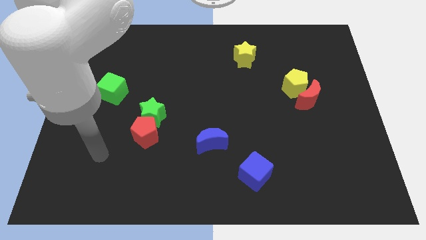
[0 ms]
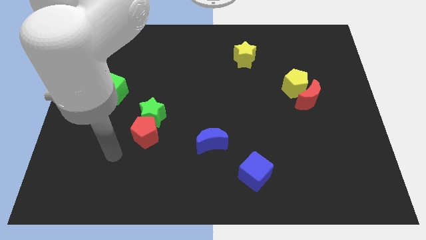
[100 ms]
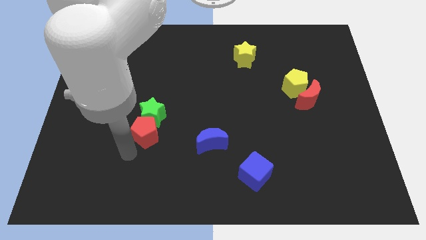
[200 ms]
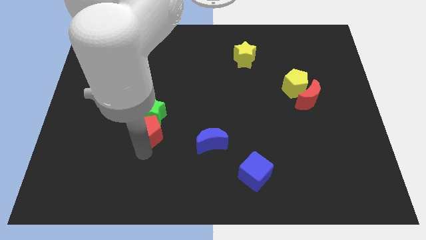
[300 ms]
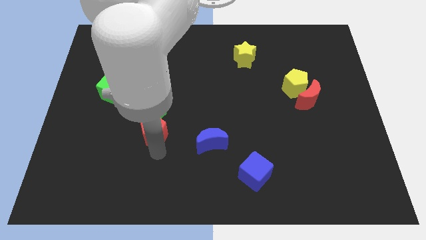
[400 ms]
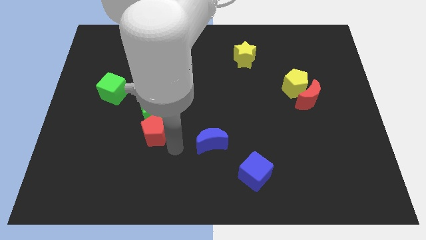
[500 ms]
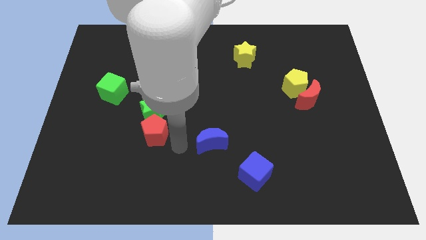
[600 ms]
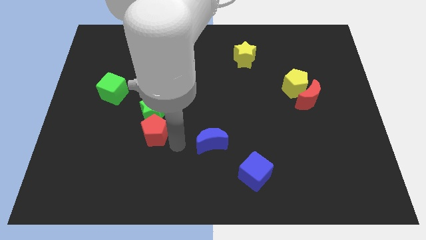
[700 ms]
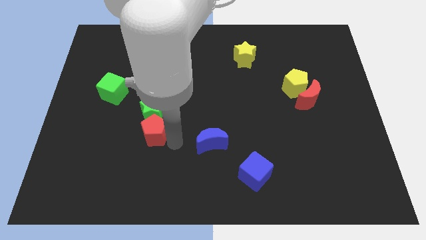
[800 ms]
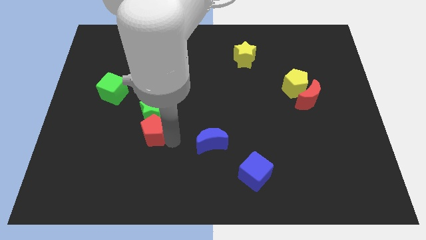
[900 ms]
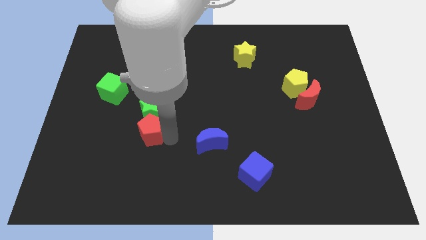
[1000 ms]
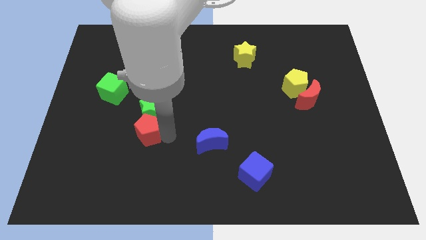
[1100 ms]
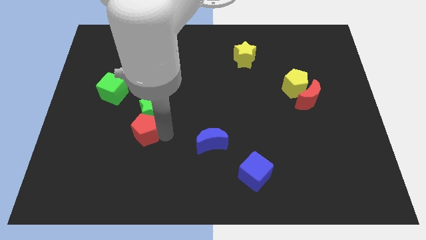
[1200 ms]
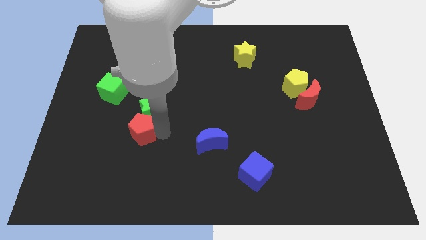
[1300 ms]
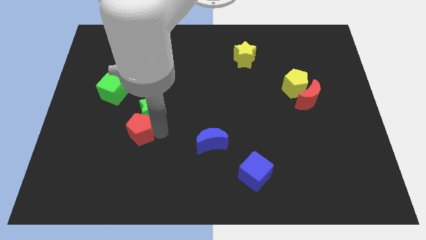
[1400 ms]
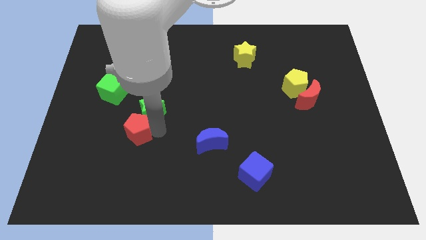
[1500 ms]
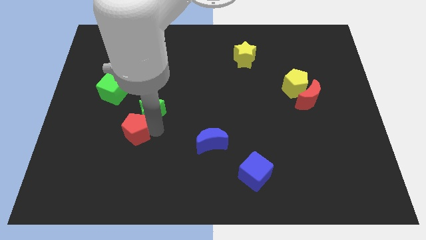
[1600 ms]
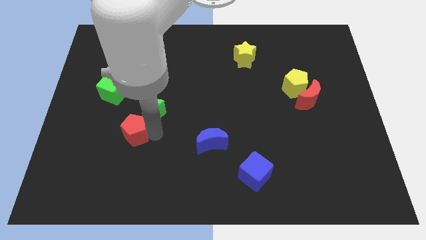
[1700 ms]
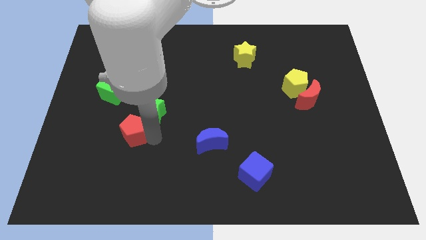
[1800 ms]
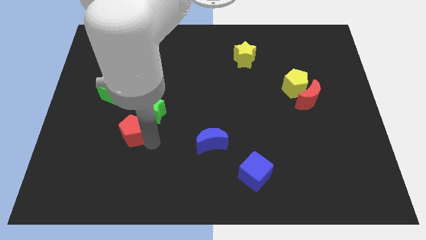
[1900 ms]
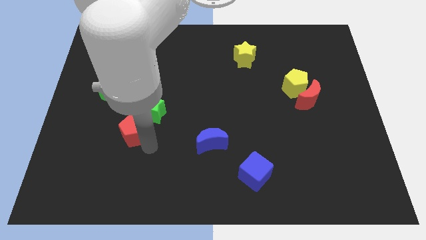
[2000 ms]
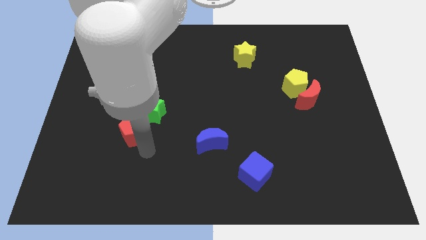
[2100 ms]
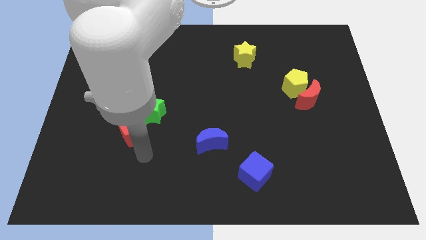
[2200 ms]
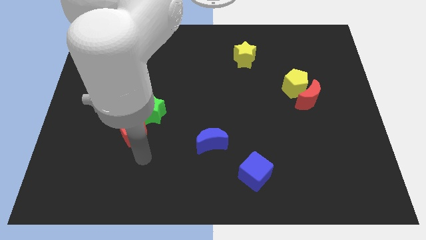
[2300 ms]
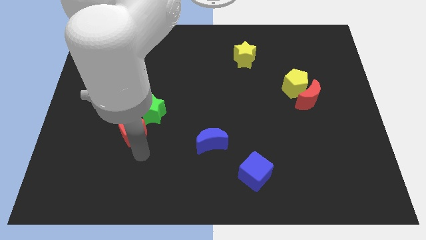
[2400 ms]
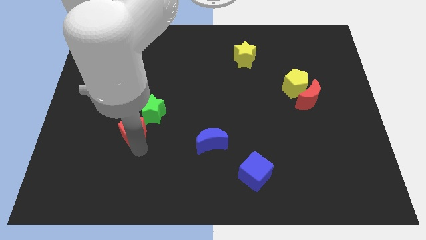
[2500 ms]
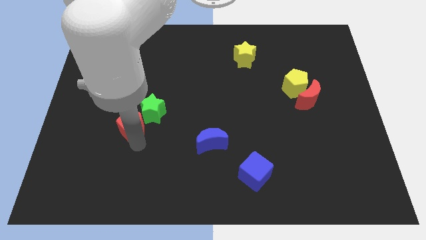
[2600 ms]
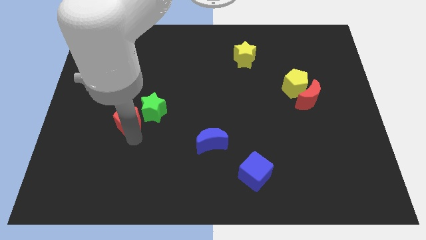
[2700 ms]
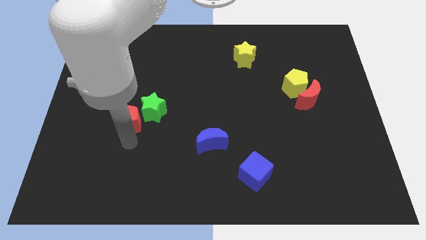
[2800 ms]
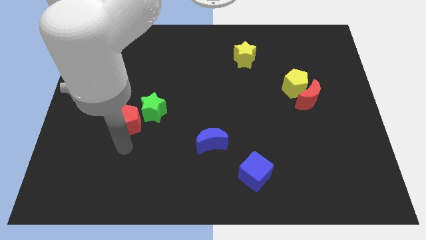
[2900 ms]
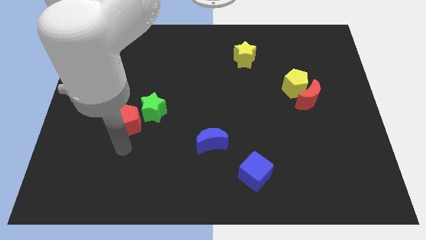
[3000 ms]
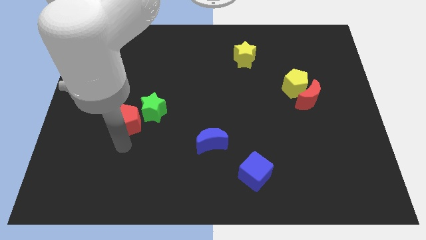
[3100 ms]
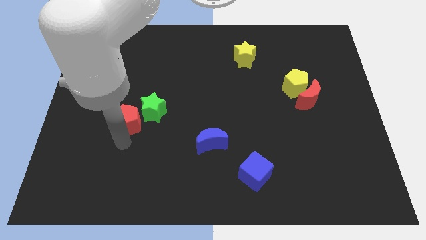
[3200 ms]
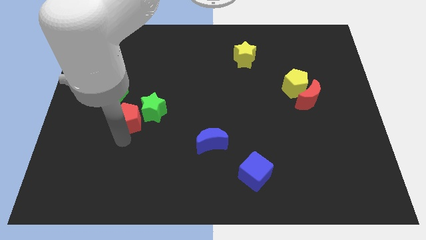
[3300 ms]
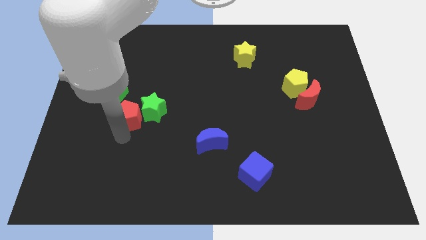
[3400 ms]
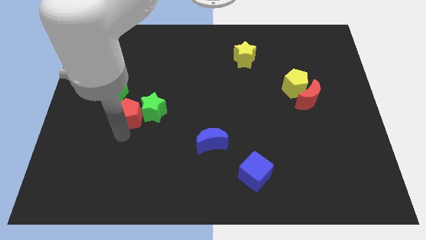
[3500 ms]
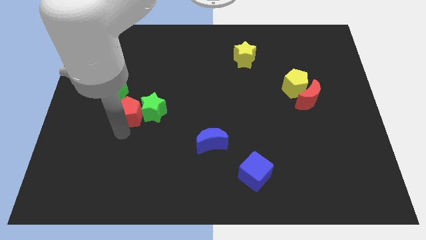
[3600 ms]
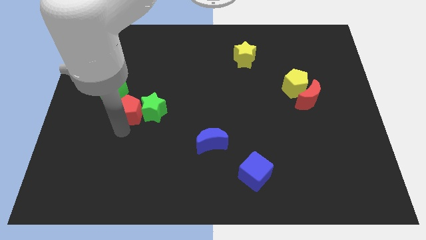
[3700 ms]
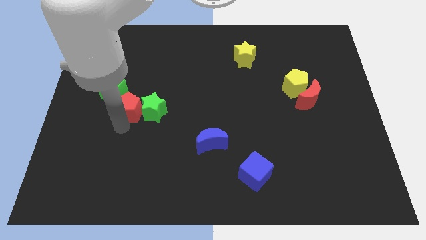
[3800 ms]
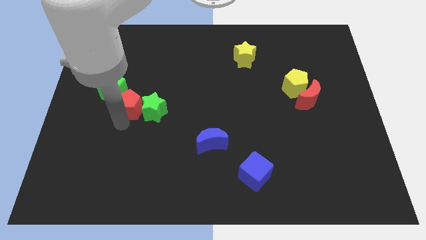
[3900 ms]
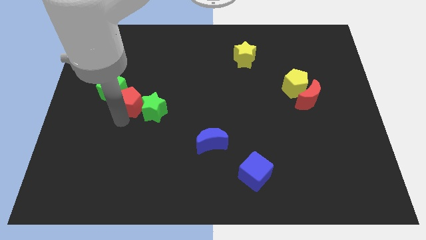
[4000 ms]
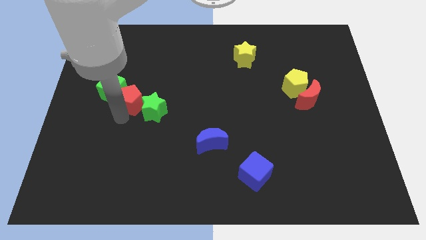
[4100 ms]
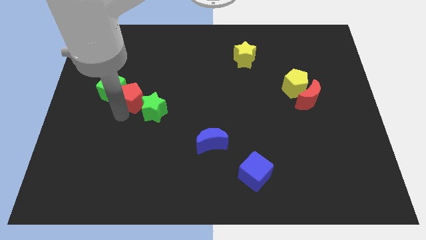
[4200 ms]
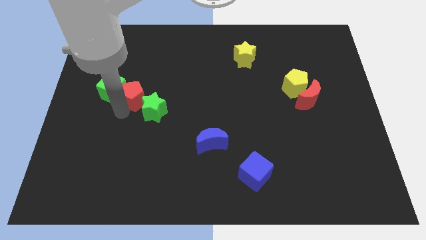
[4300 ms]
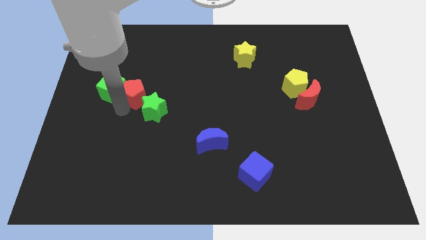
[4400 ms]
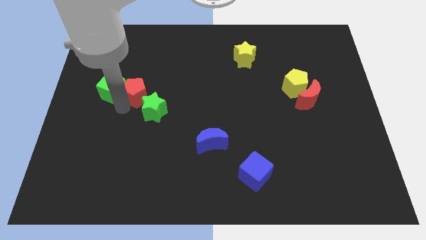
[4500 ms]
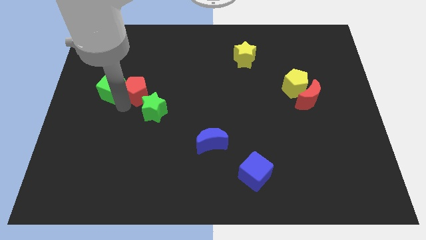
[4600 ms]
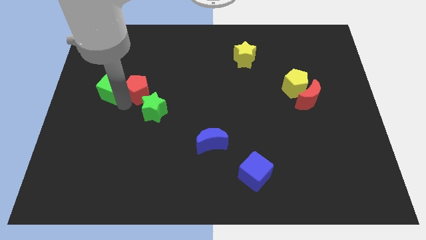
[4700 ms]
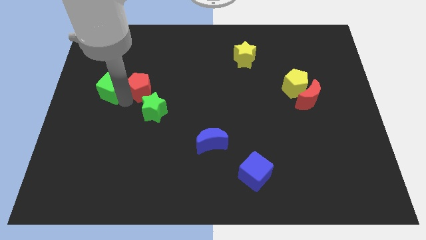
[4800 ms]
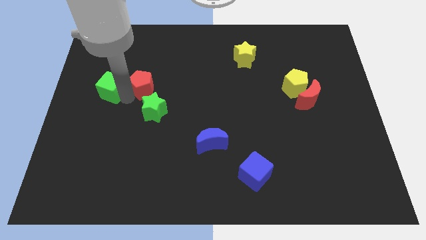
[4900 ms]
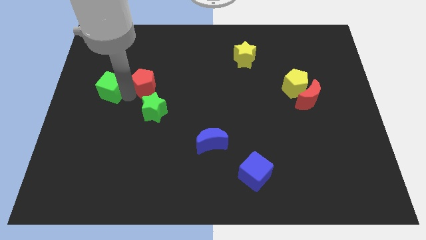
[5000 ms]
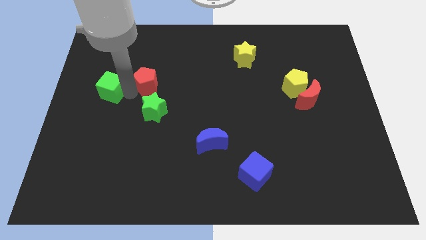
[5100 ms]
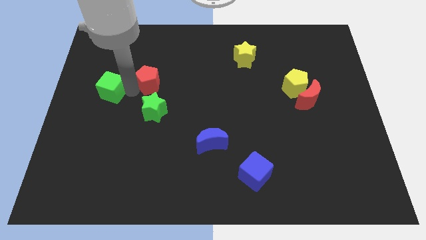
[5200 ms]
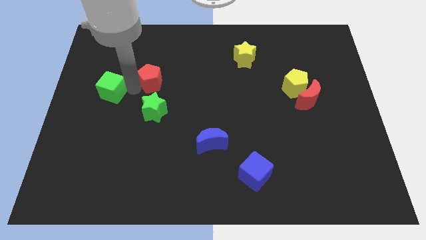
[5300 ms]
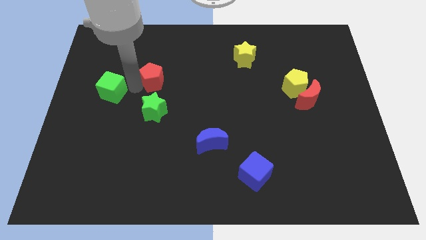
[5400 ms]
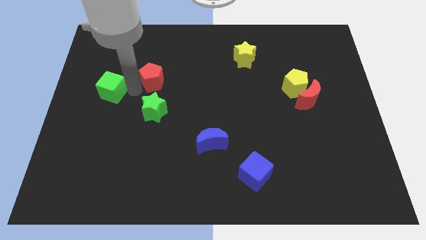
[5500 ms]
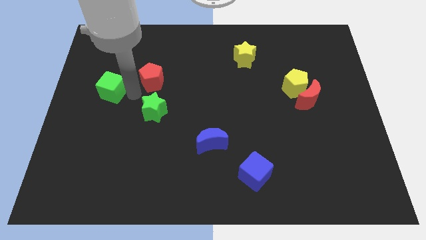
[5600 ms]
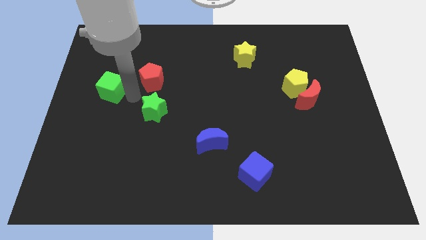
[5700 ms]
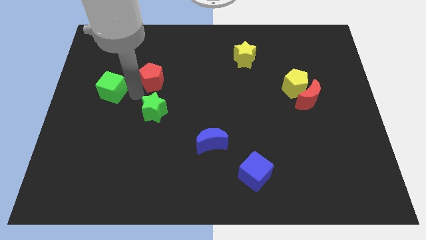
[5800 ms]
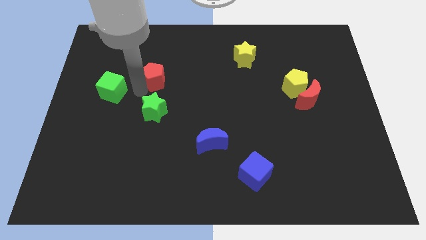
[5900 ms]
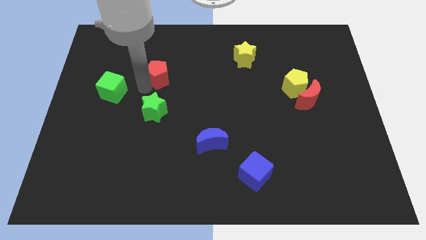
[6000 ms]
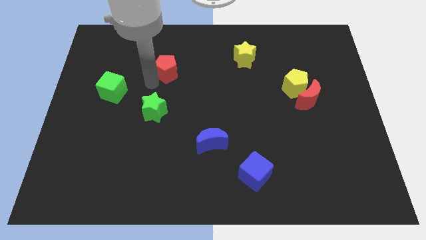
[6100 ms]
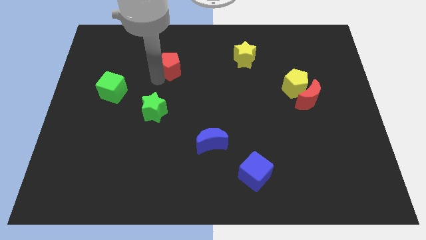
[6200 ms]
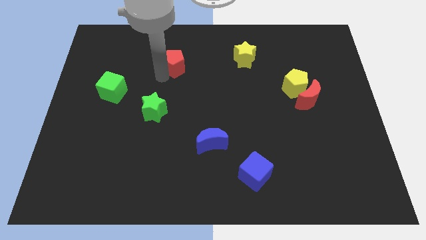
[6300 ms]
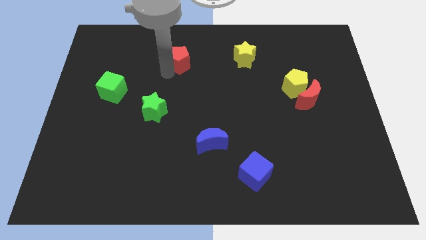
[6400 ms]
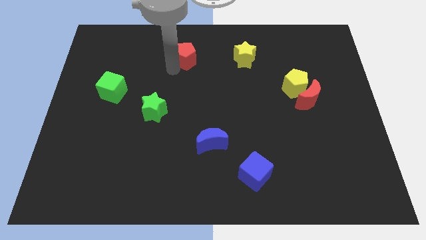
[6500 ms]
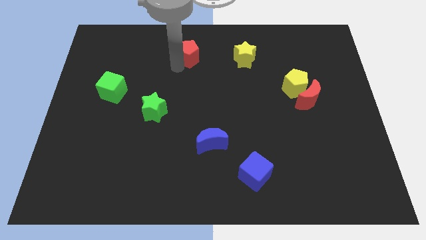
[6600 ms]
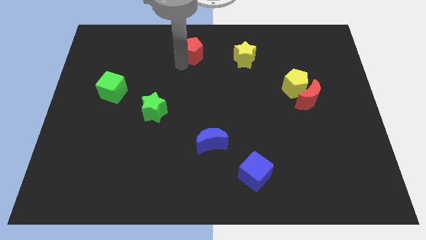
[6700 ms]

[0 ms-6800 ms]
move the red pentagon to the towards your base

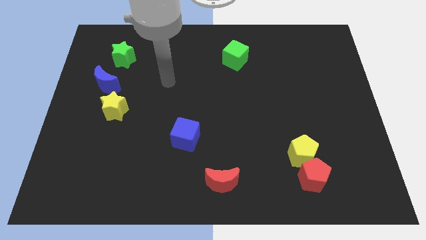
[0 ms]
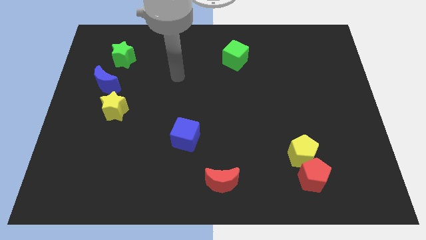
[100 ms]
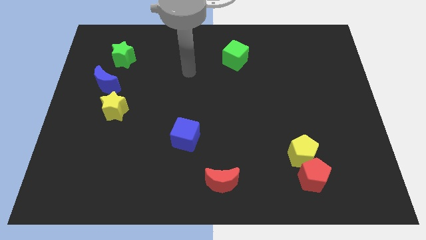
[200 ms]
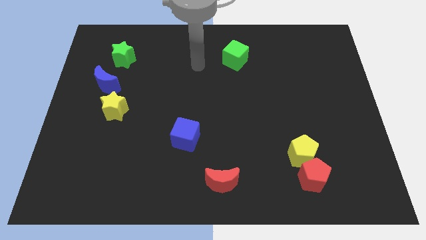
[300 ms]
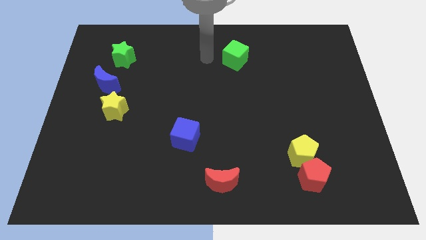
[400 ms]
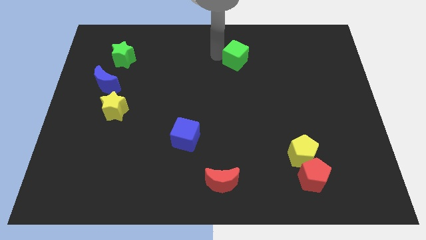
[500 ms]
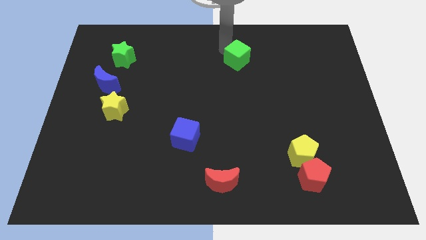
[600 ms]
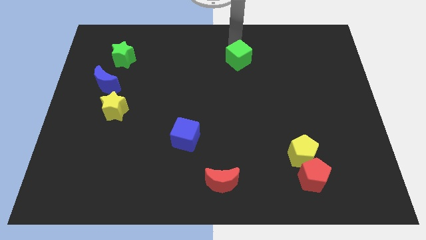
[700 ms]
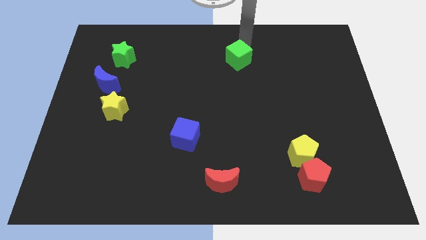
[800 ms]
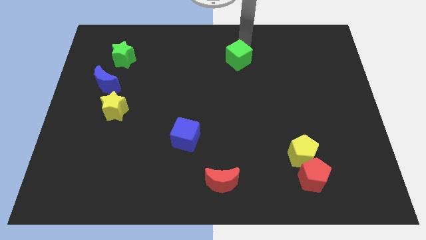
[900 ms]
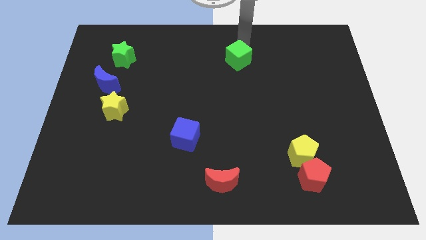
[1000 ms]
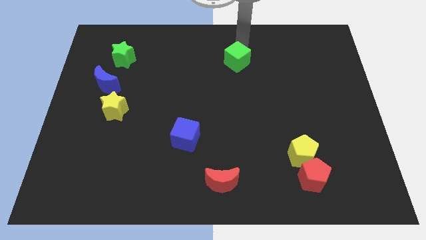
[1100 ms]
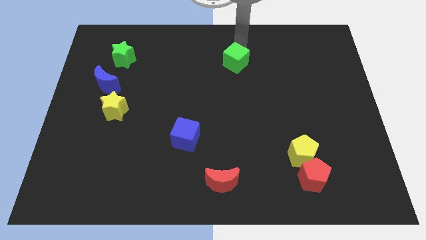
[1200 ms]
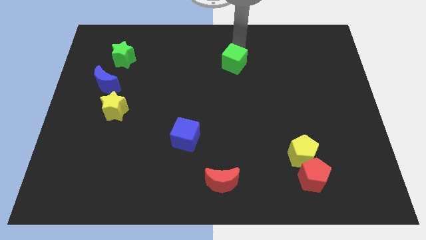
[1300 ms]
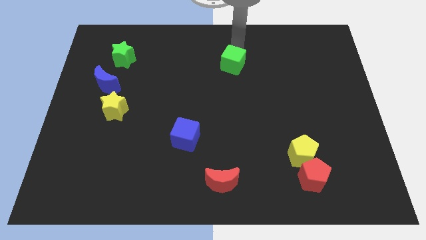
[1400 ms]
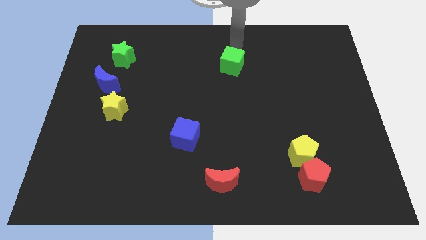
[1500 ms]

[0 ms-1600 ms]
push the green cube to the center

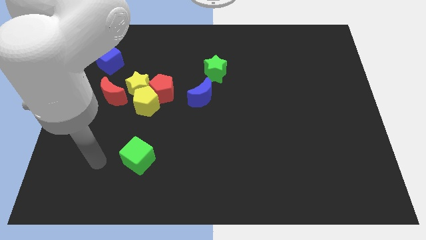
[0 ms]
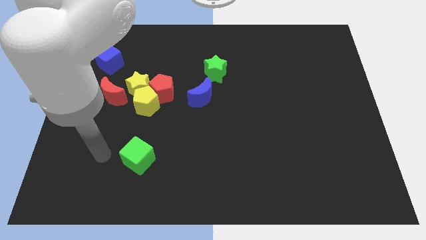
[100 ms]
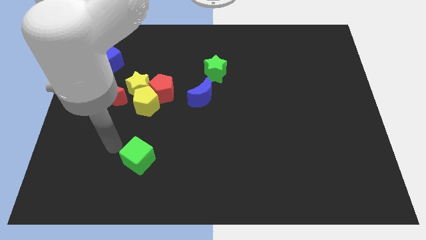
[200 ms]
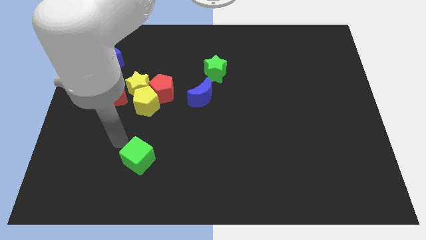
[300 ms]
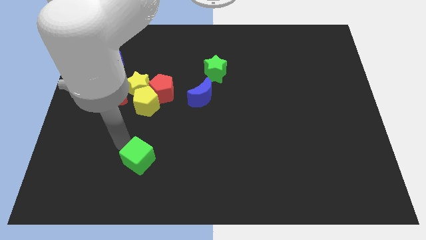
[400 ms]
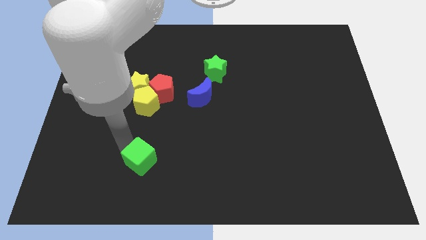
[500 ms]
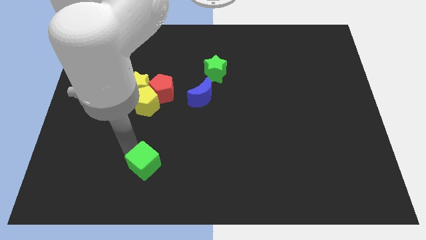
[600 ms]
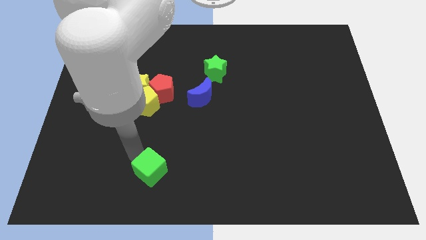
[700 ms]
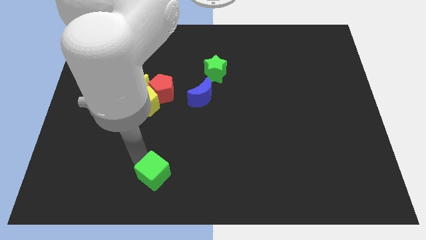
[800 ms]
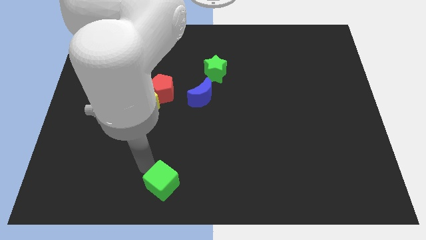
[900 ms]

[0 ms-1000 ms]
push the green cube to the bottom side
